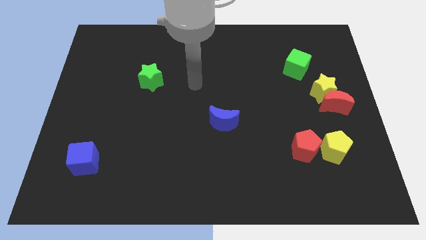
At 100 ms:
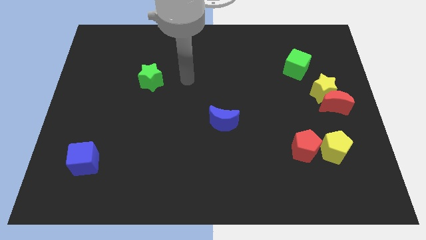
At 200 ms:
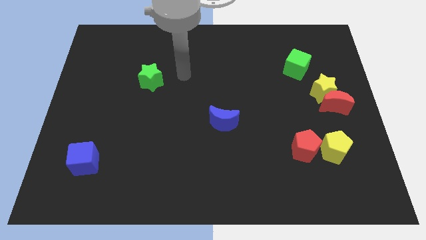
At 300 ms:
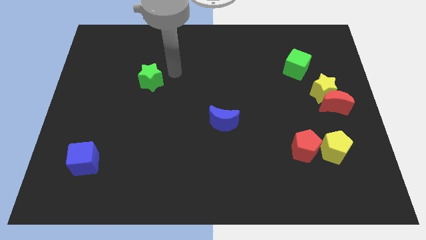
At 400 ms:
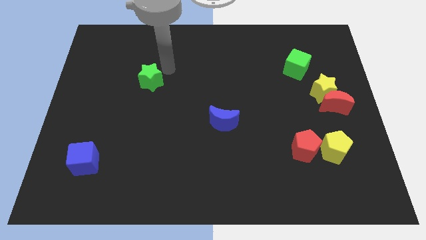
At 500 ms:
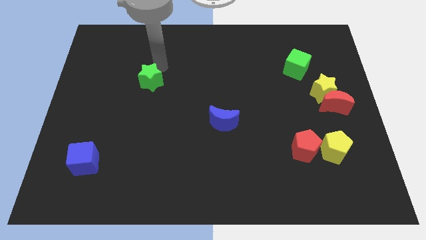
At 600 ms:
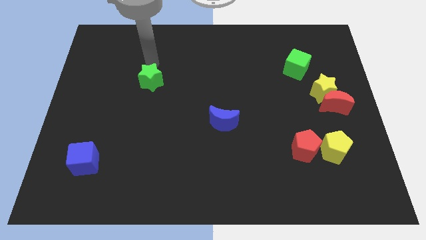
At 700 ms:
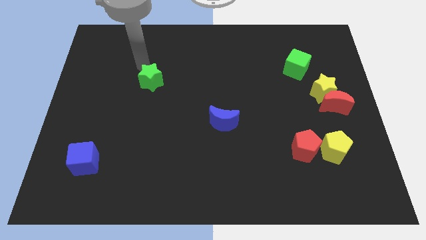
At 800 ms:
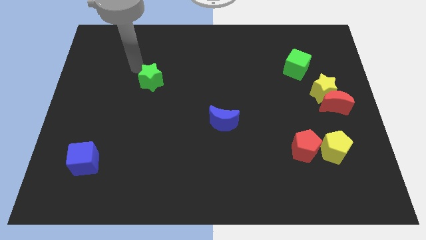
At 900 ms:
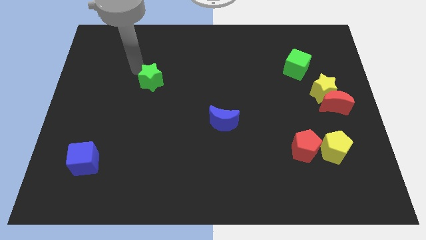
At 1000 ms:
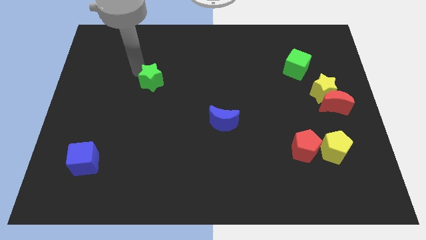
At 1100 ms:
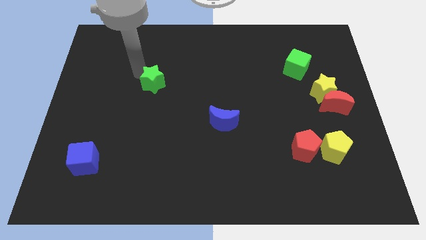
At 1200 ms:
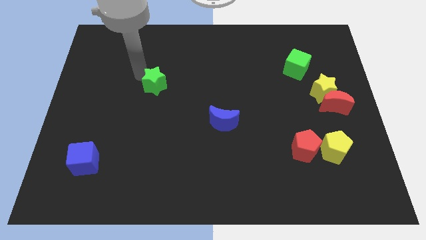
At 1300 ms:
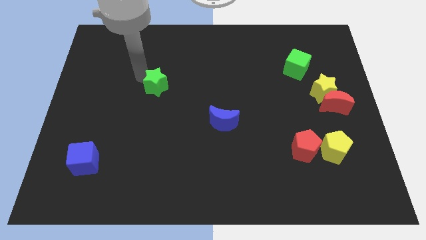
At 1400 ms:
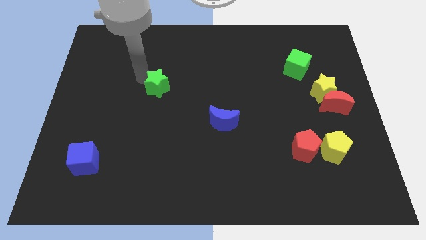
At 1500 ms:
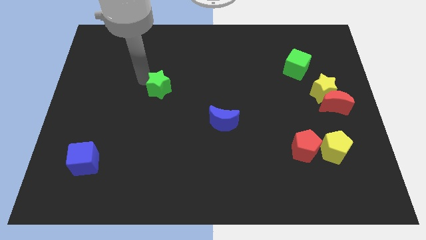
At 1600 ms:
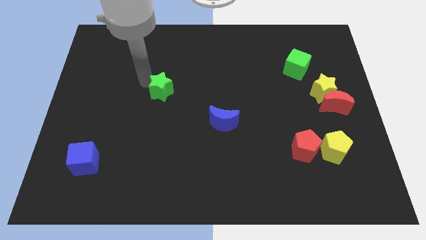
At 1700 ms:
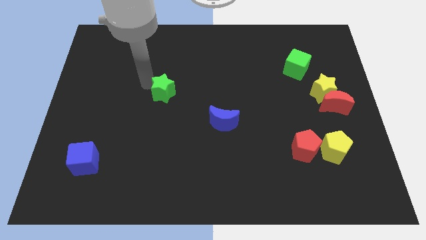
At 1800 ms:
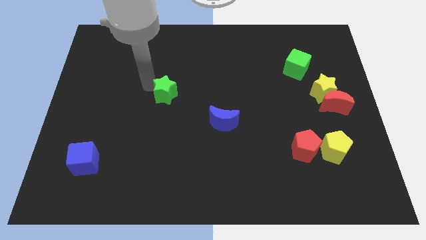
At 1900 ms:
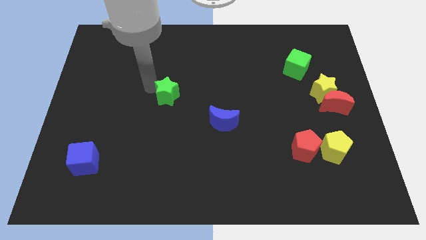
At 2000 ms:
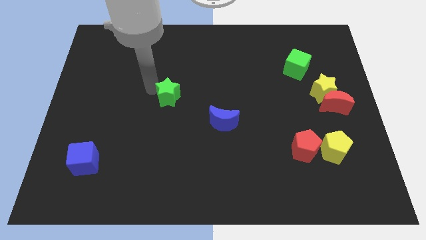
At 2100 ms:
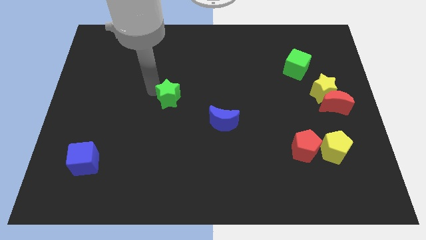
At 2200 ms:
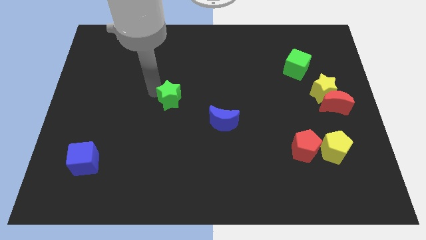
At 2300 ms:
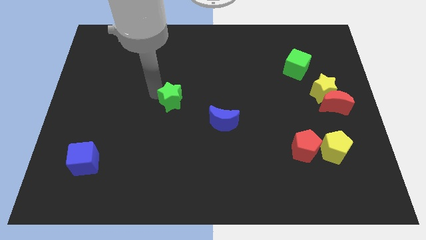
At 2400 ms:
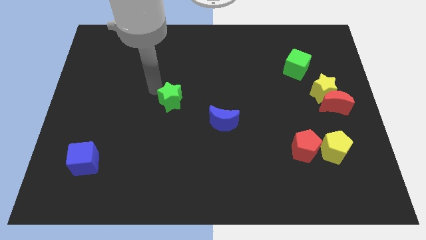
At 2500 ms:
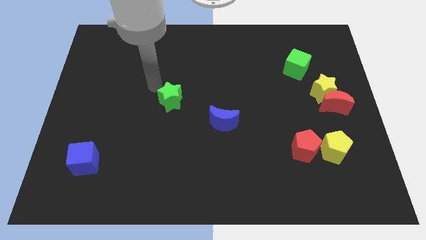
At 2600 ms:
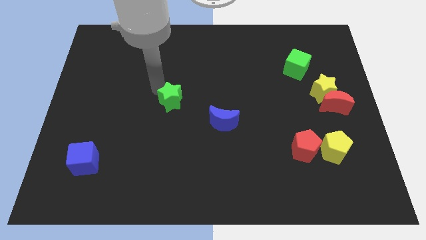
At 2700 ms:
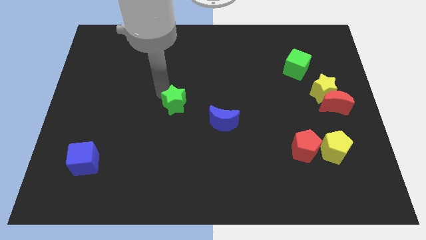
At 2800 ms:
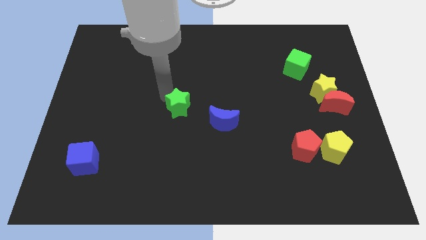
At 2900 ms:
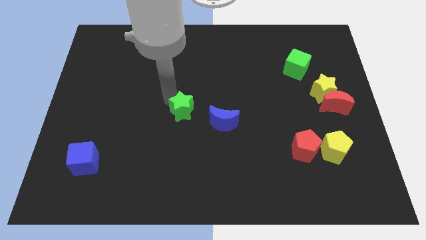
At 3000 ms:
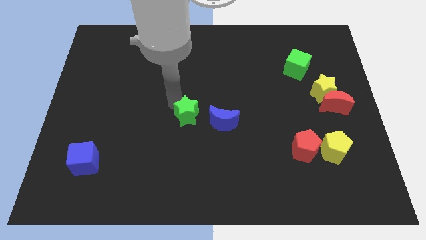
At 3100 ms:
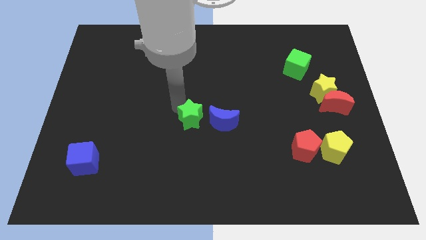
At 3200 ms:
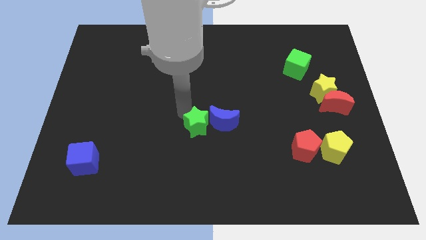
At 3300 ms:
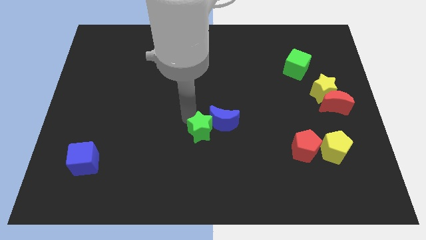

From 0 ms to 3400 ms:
slide the green star down and then to the right

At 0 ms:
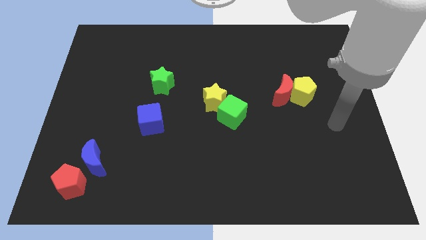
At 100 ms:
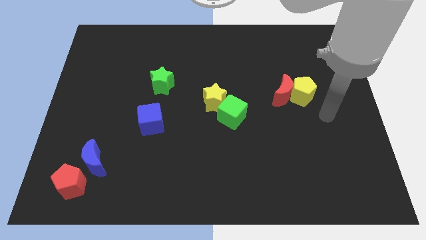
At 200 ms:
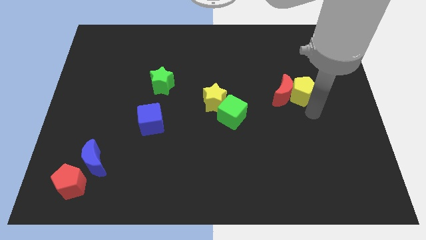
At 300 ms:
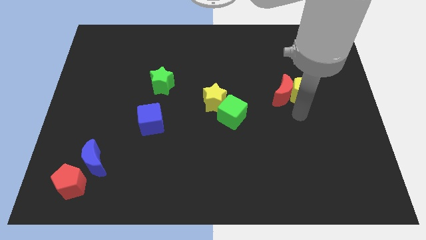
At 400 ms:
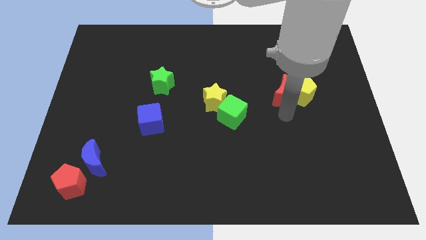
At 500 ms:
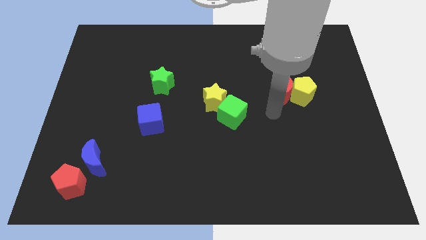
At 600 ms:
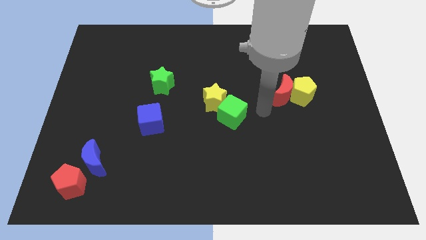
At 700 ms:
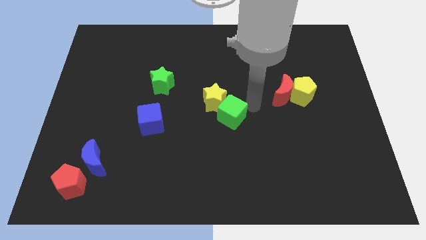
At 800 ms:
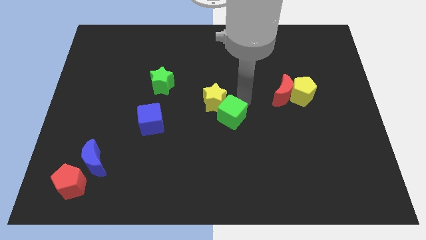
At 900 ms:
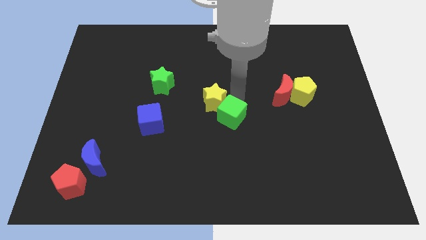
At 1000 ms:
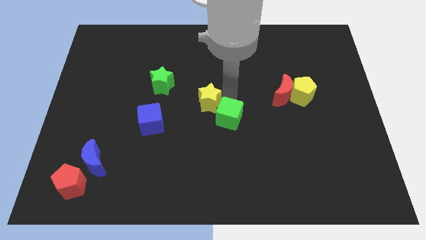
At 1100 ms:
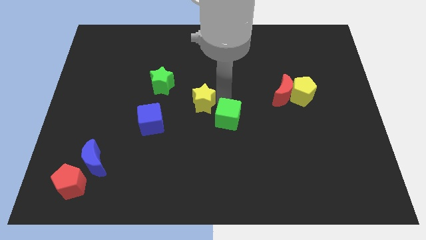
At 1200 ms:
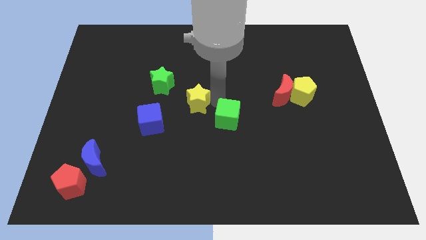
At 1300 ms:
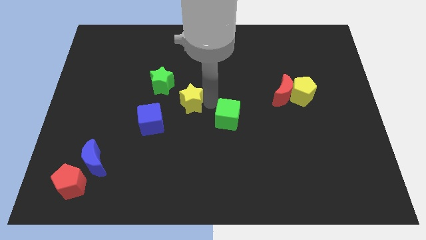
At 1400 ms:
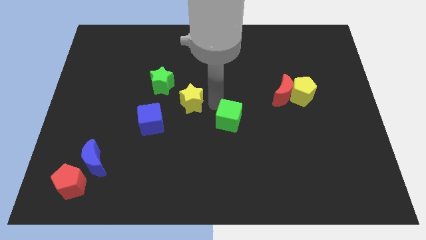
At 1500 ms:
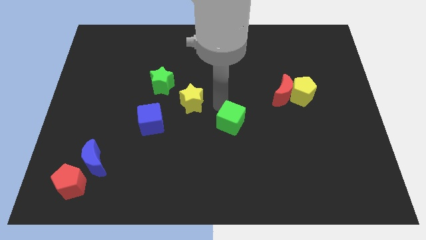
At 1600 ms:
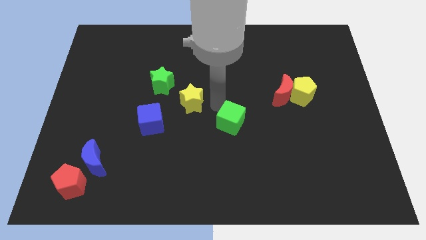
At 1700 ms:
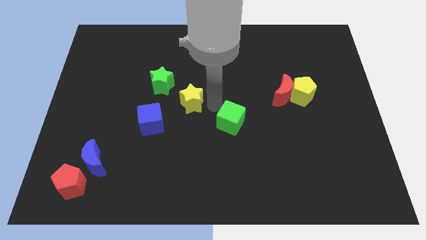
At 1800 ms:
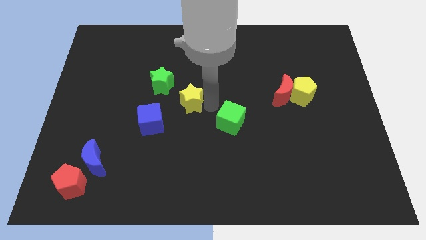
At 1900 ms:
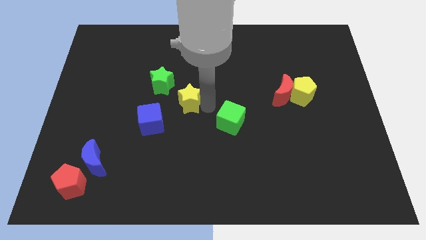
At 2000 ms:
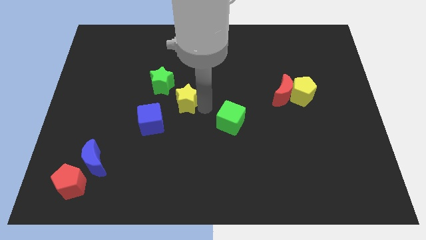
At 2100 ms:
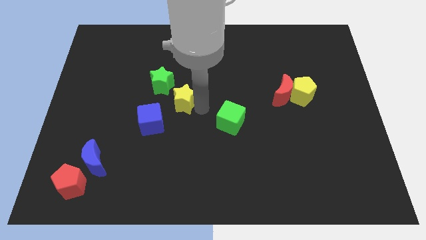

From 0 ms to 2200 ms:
slide the yellow star to the left a little

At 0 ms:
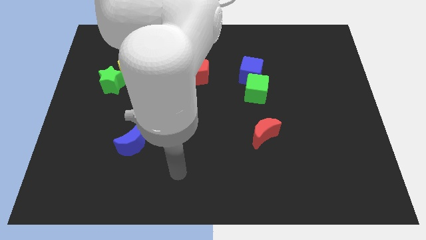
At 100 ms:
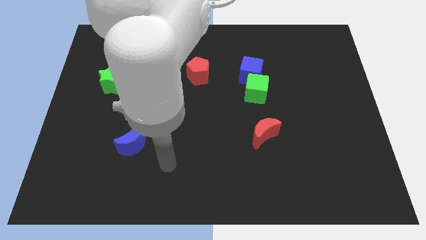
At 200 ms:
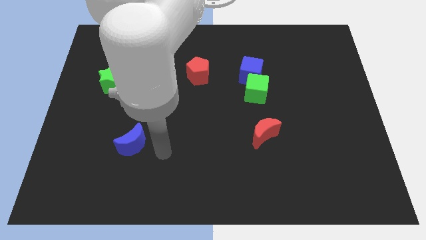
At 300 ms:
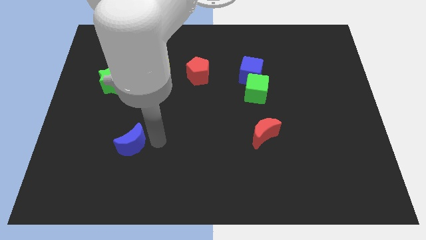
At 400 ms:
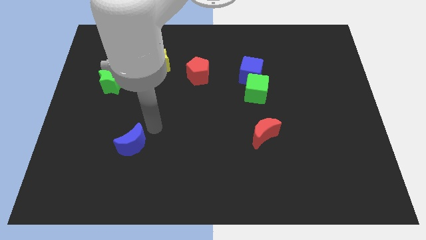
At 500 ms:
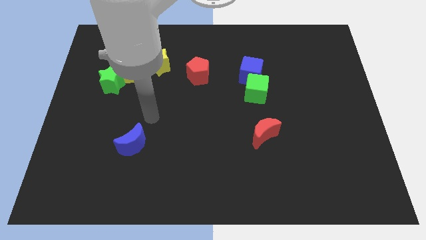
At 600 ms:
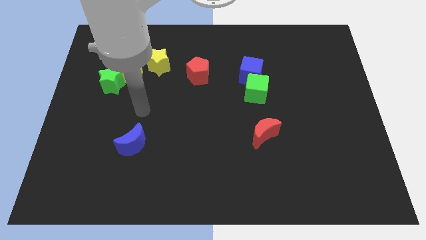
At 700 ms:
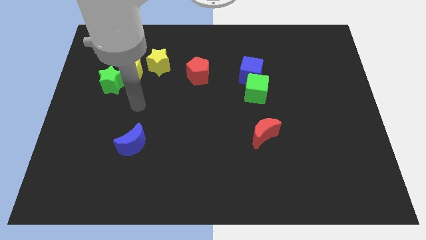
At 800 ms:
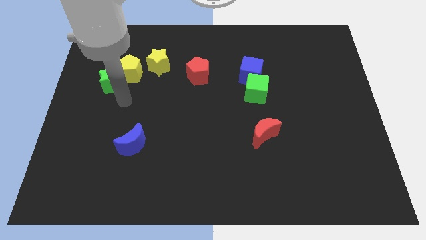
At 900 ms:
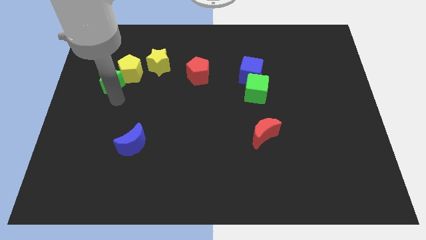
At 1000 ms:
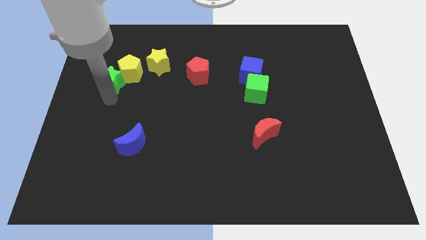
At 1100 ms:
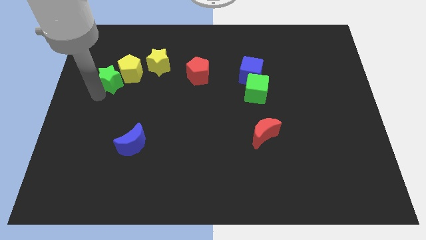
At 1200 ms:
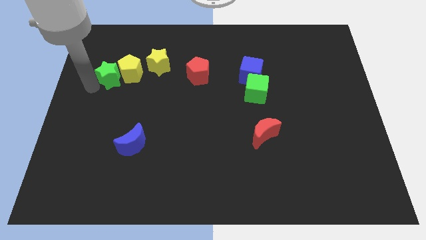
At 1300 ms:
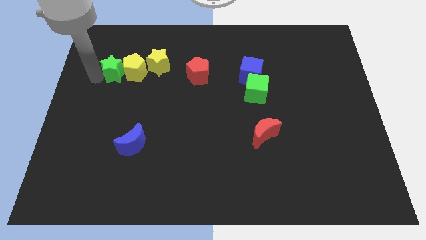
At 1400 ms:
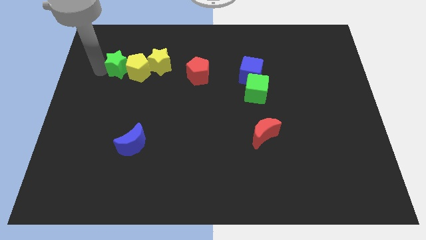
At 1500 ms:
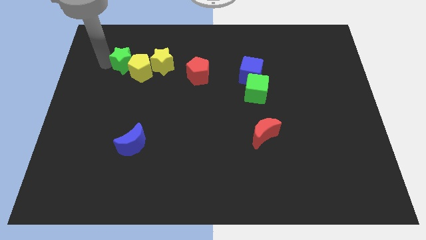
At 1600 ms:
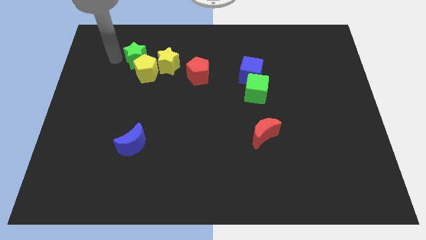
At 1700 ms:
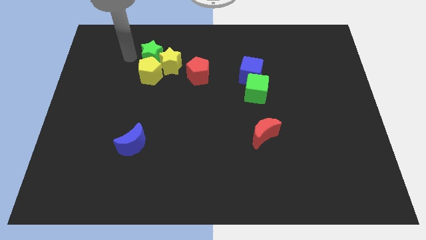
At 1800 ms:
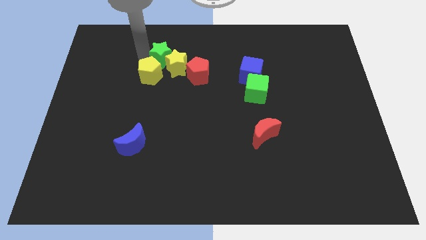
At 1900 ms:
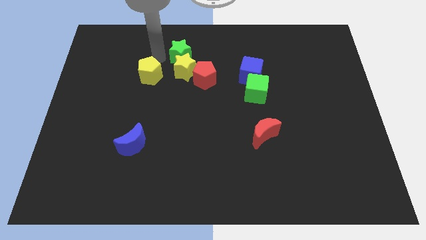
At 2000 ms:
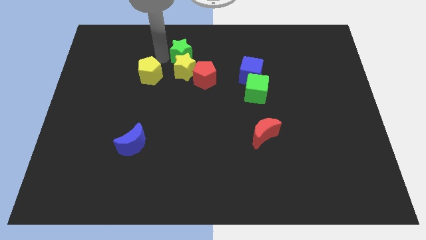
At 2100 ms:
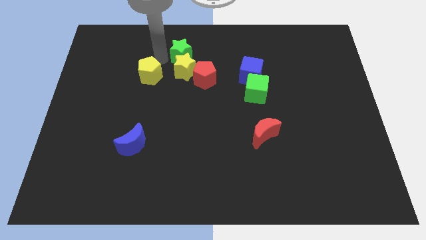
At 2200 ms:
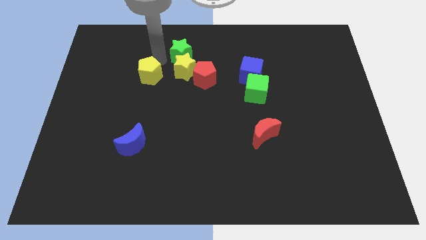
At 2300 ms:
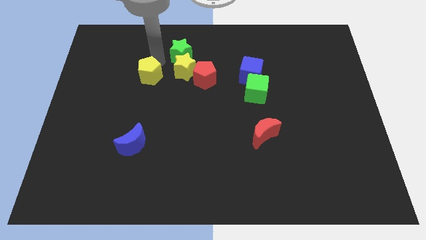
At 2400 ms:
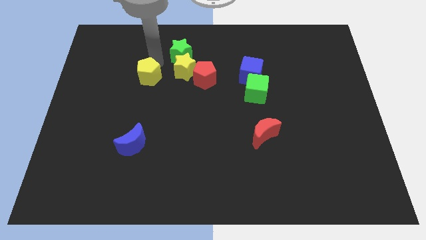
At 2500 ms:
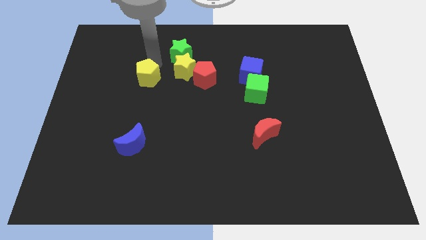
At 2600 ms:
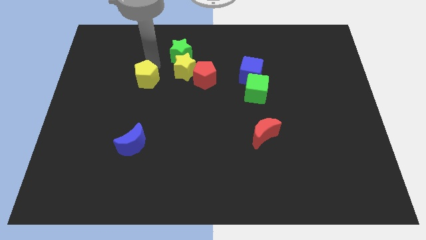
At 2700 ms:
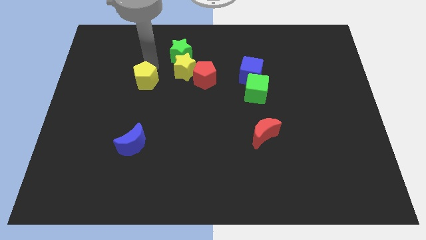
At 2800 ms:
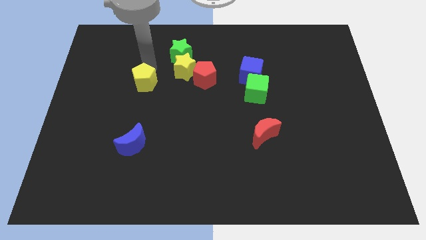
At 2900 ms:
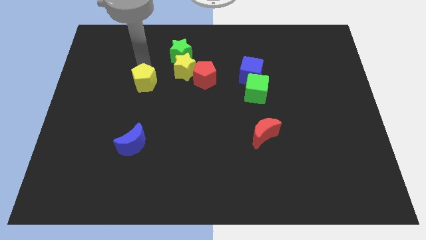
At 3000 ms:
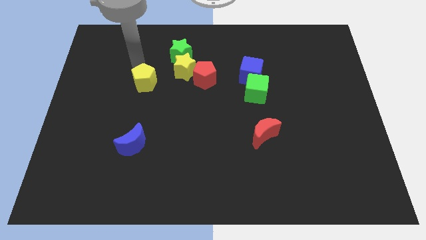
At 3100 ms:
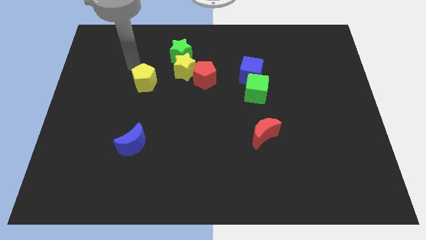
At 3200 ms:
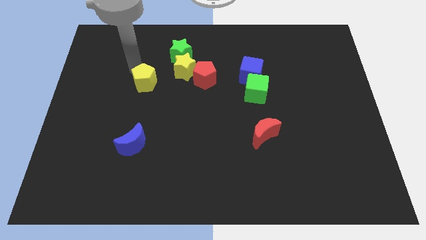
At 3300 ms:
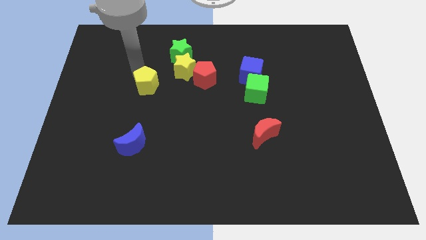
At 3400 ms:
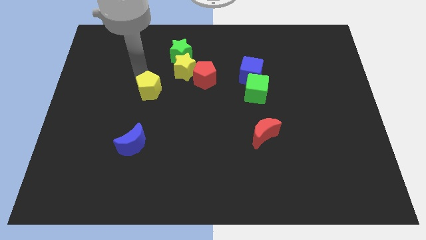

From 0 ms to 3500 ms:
move the yellow pentagon diagonally down and to the right somewhat
